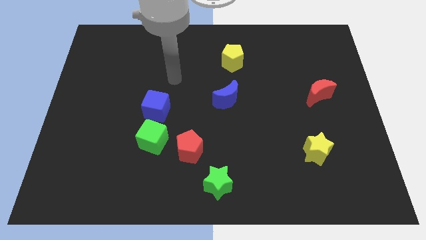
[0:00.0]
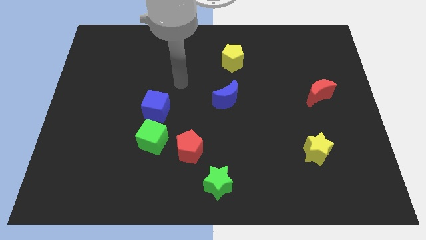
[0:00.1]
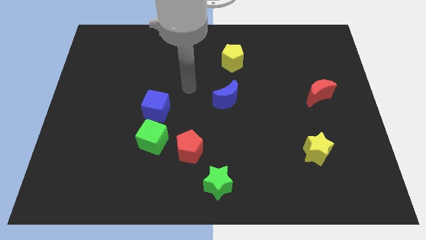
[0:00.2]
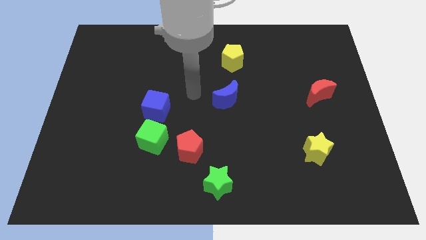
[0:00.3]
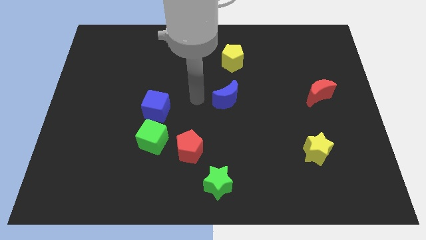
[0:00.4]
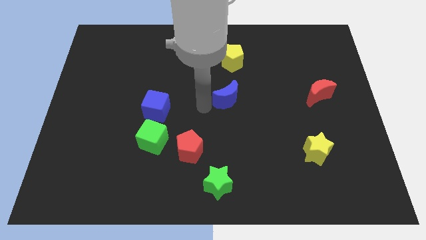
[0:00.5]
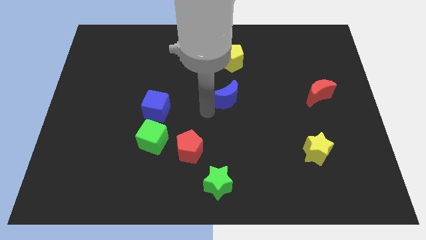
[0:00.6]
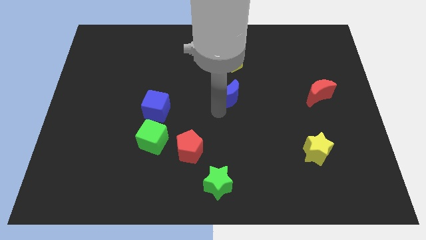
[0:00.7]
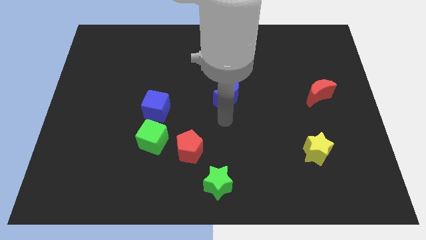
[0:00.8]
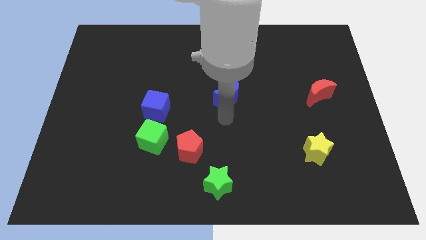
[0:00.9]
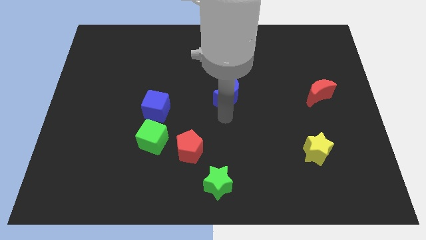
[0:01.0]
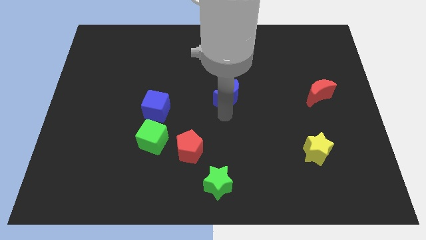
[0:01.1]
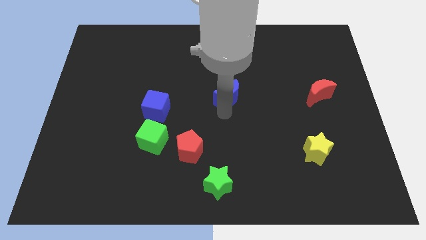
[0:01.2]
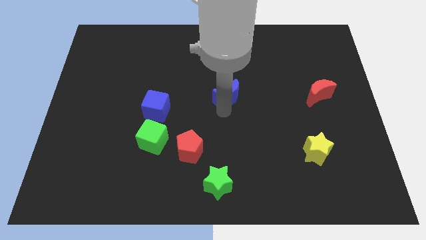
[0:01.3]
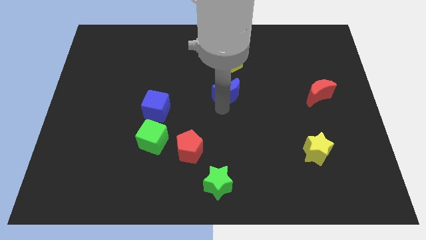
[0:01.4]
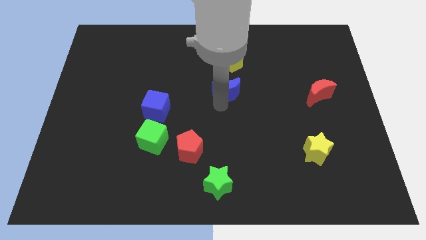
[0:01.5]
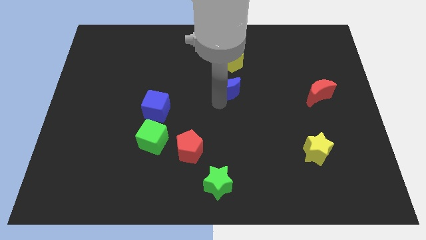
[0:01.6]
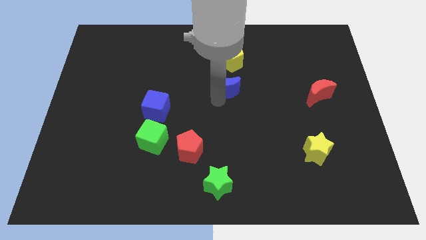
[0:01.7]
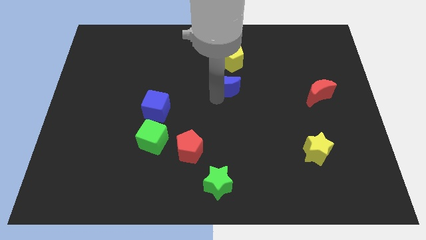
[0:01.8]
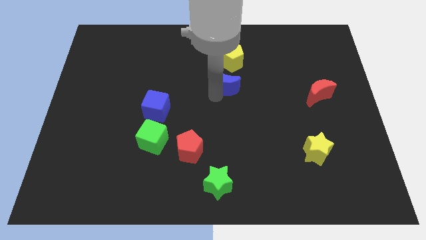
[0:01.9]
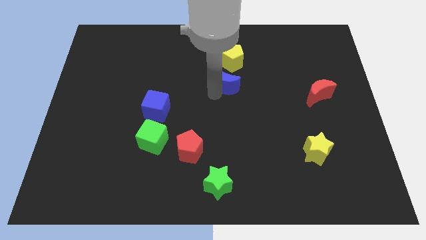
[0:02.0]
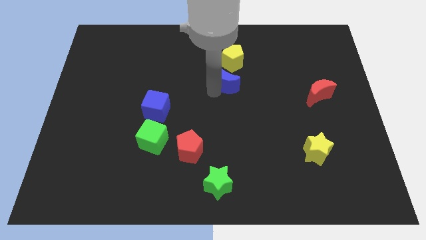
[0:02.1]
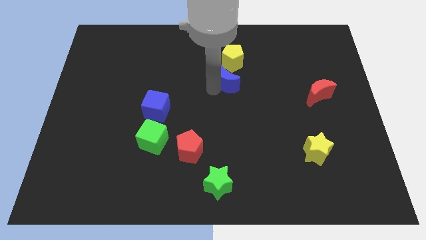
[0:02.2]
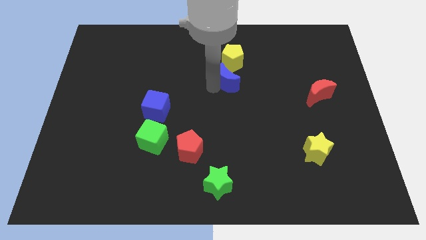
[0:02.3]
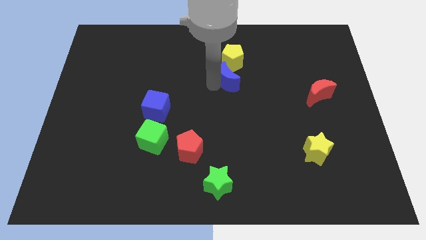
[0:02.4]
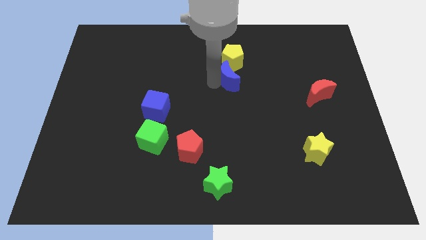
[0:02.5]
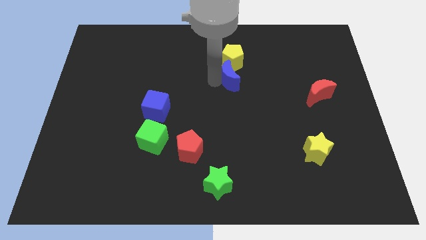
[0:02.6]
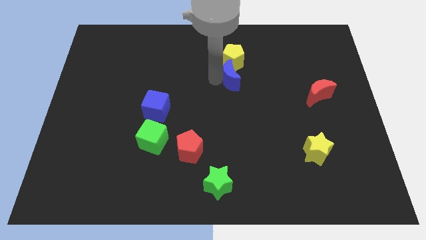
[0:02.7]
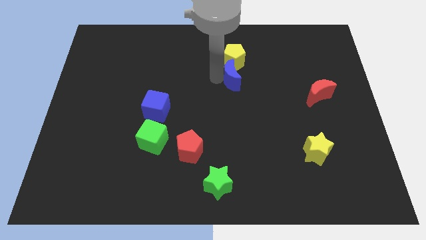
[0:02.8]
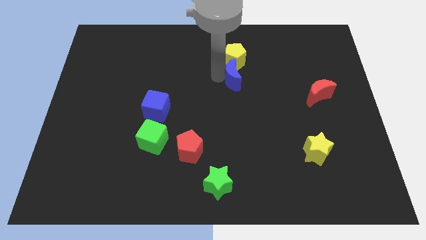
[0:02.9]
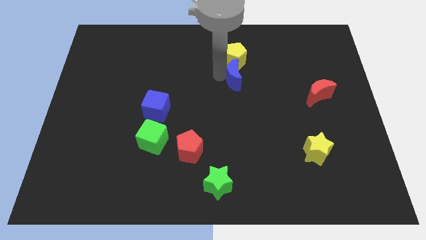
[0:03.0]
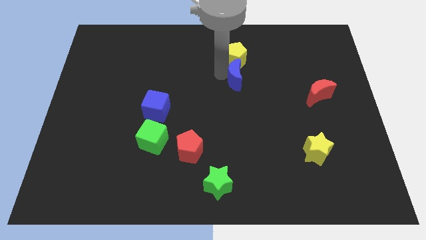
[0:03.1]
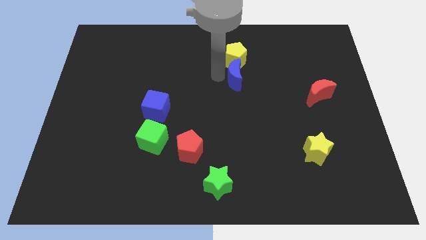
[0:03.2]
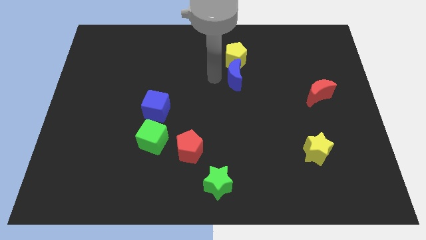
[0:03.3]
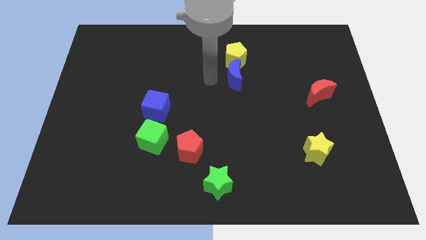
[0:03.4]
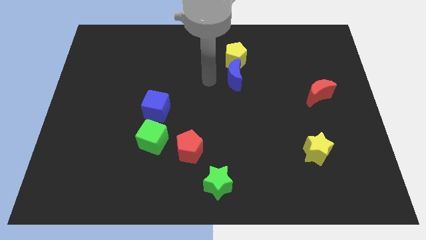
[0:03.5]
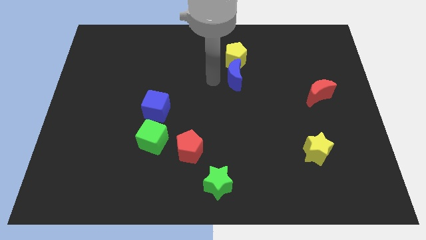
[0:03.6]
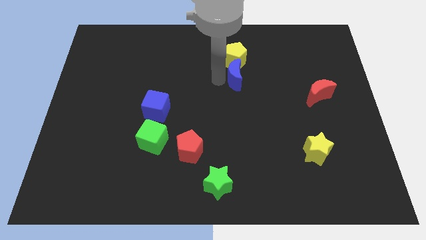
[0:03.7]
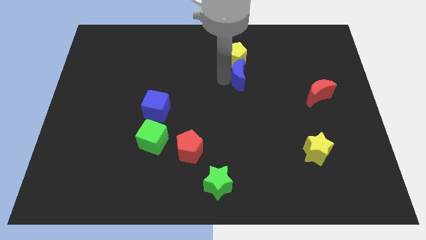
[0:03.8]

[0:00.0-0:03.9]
slightly push the blue moon upwards and right diagonally

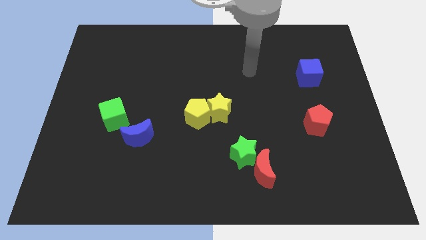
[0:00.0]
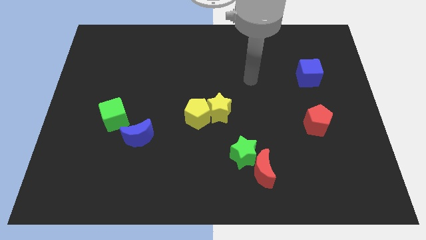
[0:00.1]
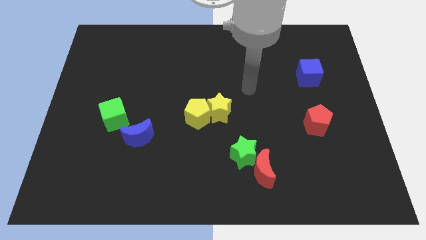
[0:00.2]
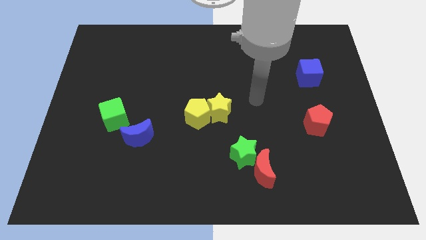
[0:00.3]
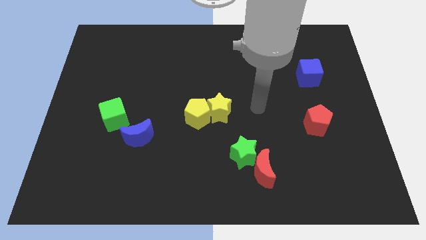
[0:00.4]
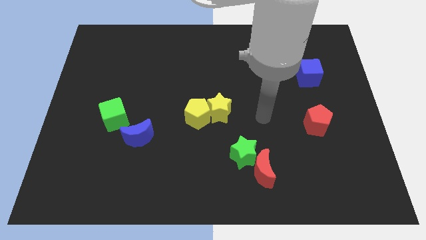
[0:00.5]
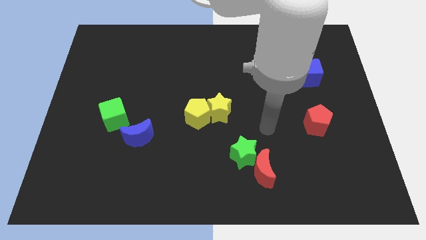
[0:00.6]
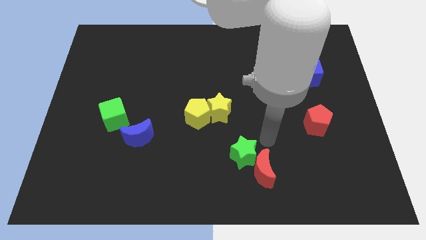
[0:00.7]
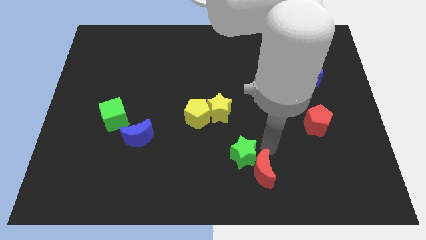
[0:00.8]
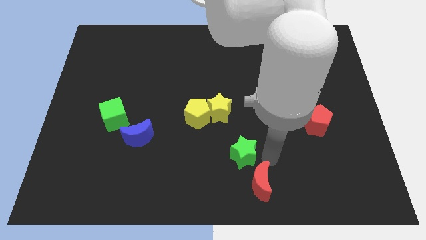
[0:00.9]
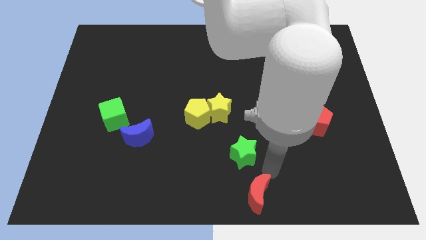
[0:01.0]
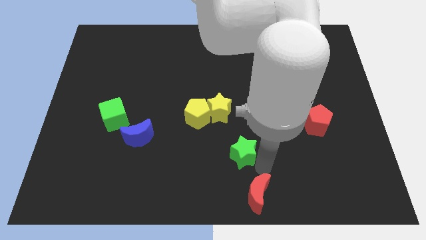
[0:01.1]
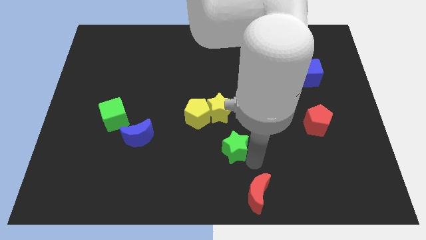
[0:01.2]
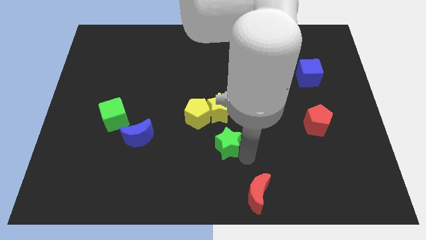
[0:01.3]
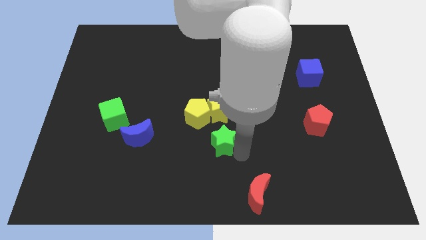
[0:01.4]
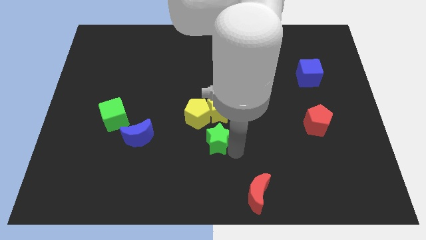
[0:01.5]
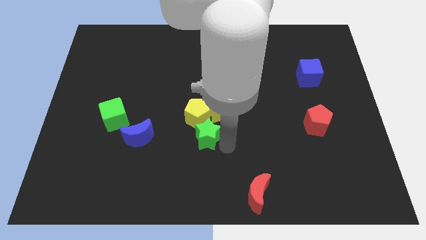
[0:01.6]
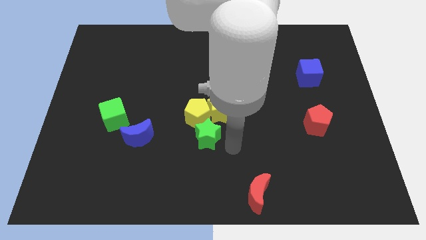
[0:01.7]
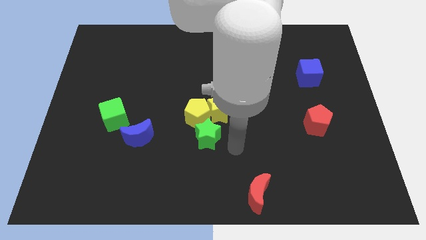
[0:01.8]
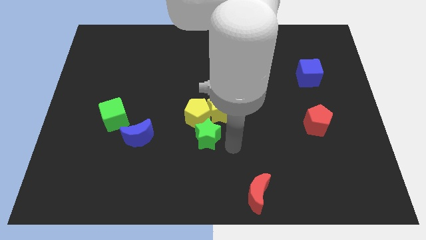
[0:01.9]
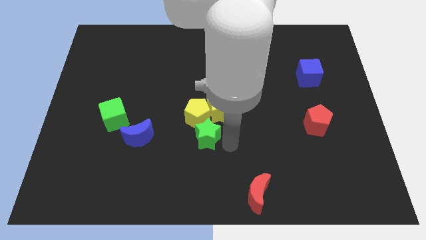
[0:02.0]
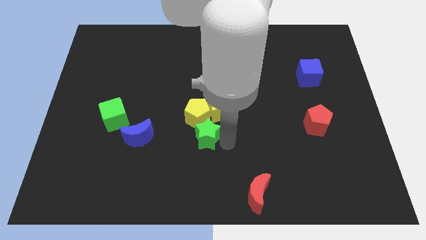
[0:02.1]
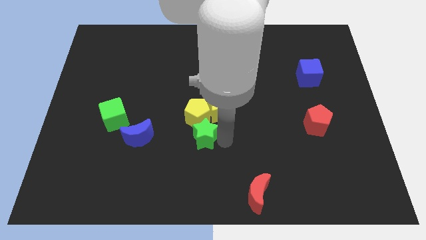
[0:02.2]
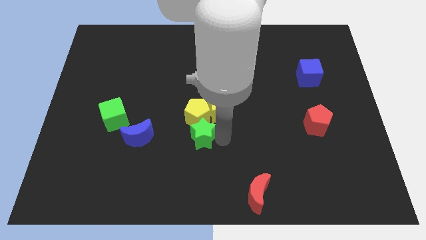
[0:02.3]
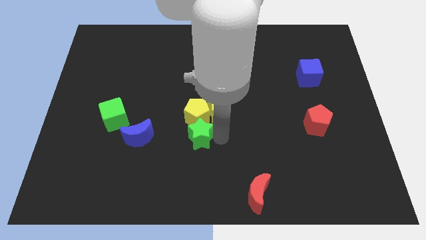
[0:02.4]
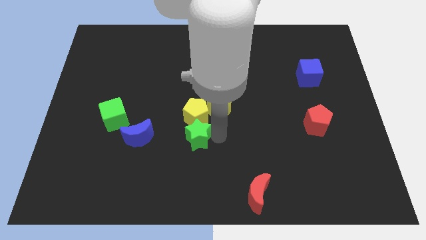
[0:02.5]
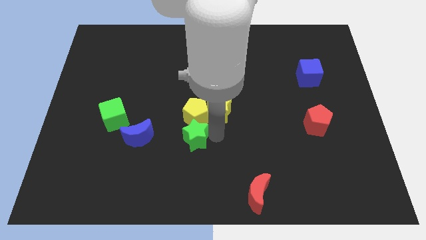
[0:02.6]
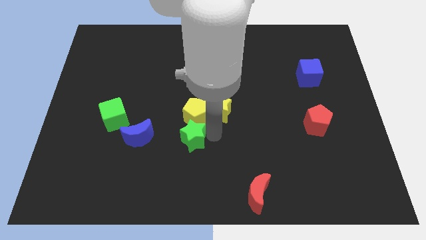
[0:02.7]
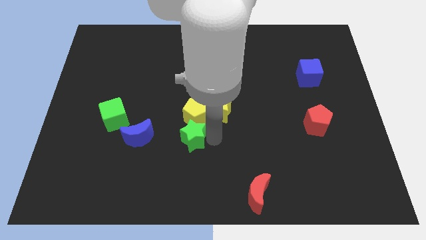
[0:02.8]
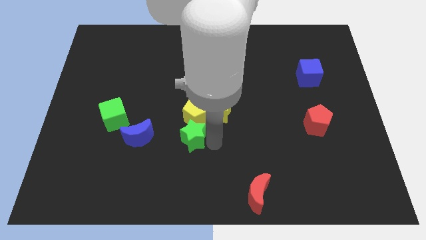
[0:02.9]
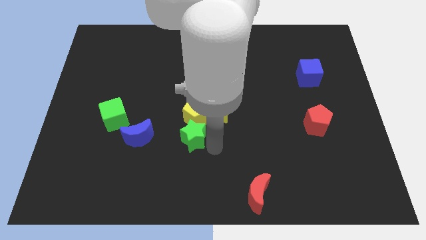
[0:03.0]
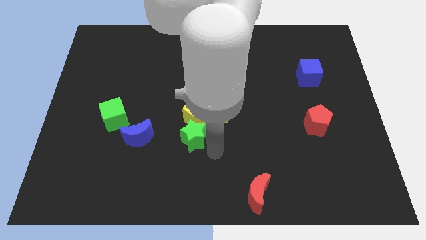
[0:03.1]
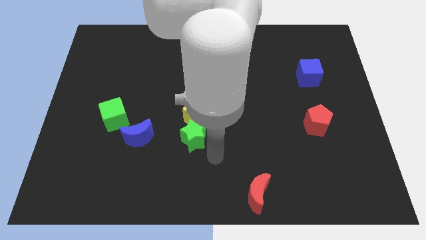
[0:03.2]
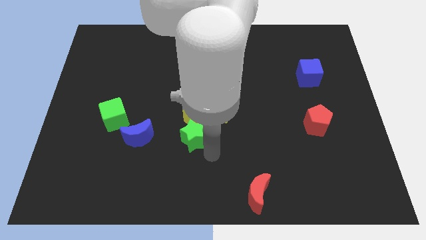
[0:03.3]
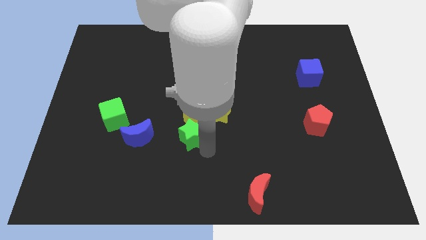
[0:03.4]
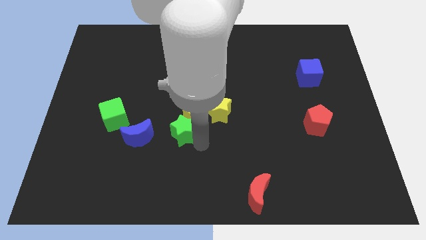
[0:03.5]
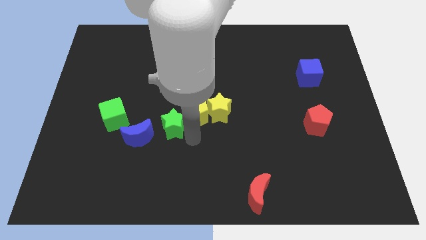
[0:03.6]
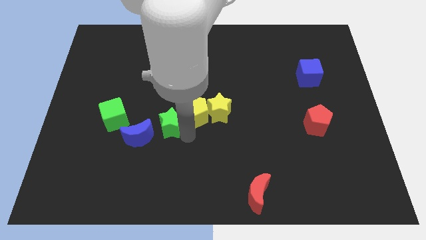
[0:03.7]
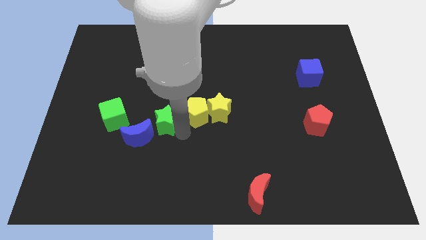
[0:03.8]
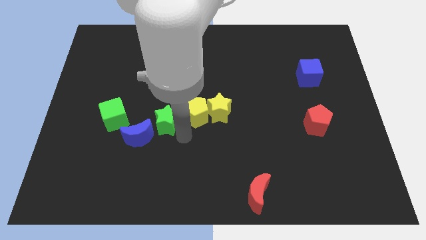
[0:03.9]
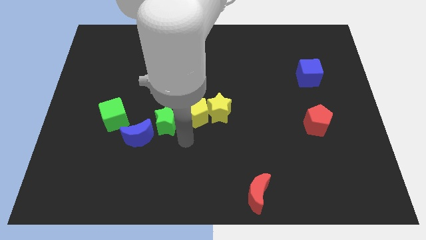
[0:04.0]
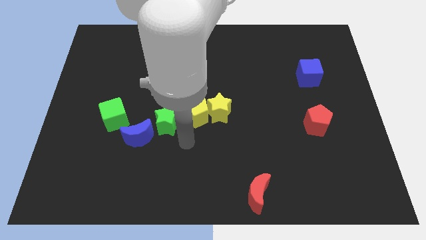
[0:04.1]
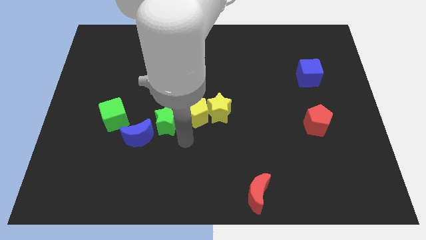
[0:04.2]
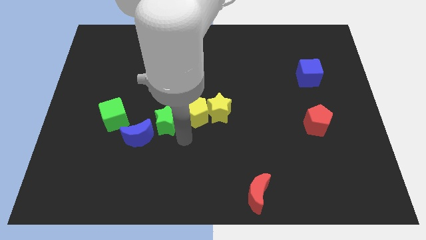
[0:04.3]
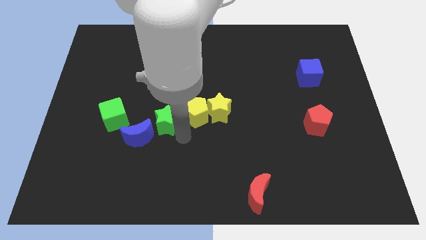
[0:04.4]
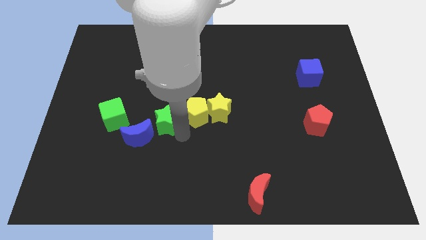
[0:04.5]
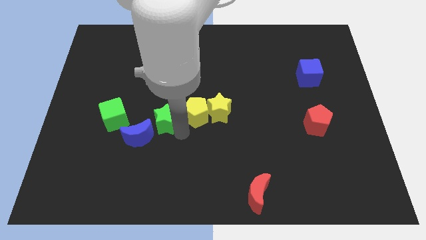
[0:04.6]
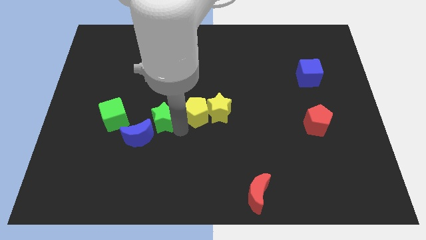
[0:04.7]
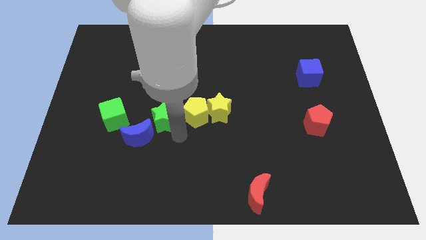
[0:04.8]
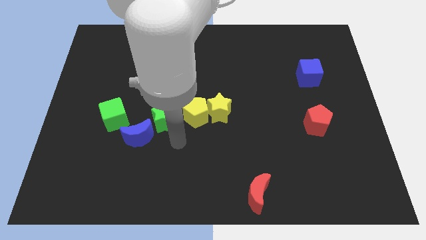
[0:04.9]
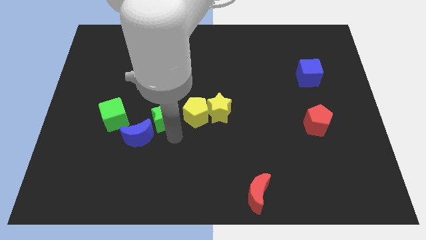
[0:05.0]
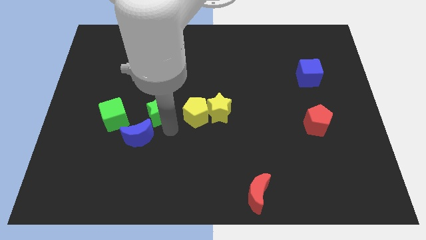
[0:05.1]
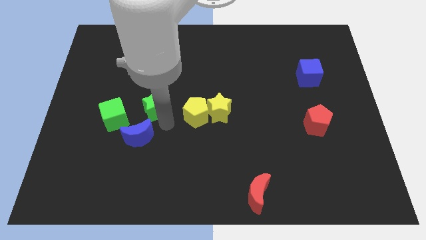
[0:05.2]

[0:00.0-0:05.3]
move the green star diagonally upwards and left
